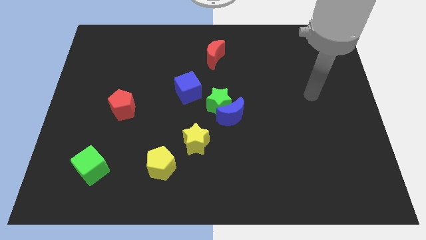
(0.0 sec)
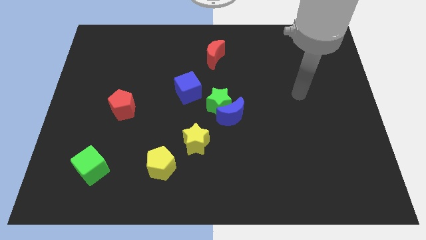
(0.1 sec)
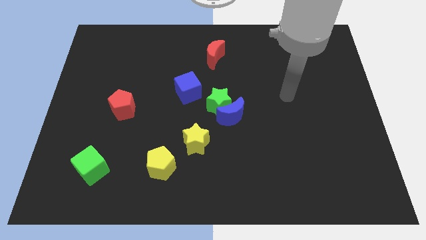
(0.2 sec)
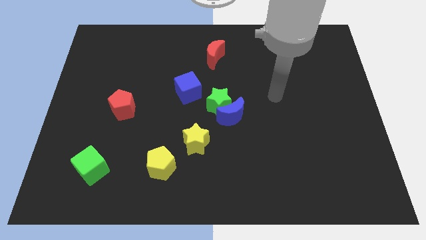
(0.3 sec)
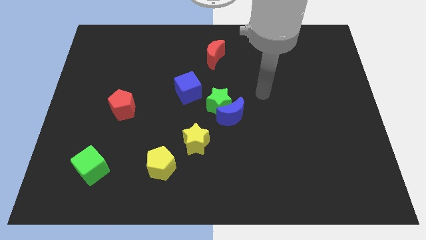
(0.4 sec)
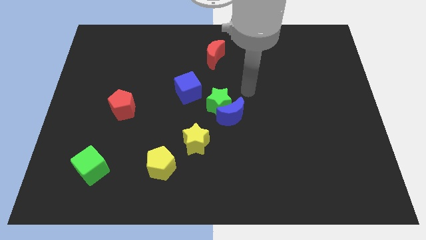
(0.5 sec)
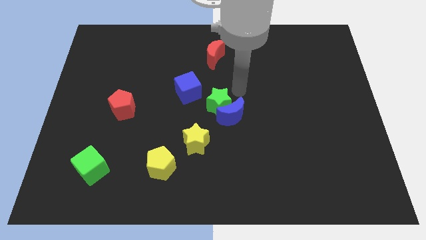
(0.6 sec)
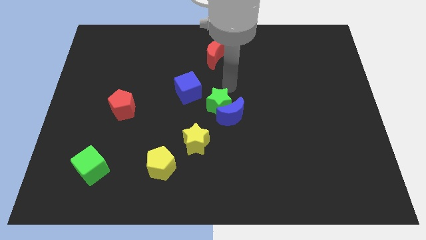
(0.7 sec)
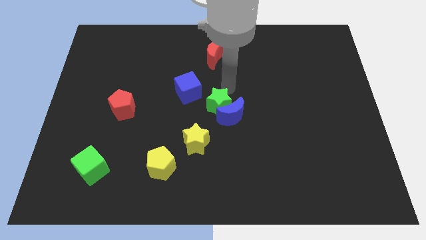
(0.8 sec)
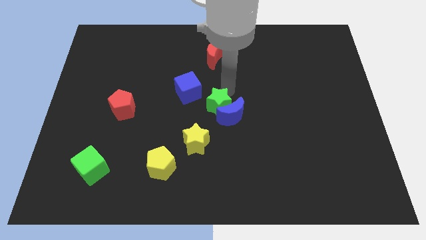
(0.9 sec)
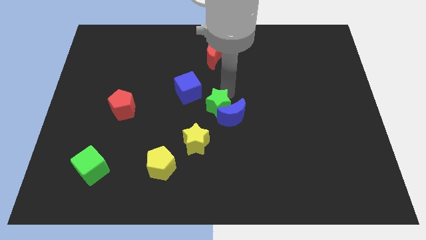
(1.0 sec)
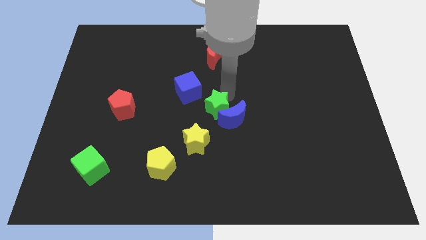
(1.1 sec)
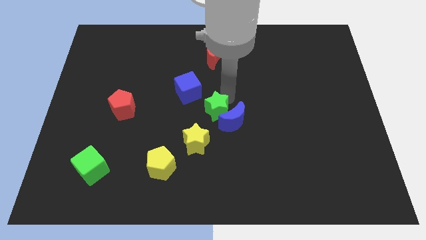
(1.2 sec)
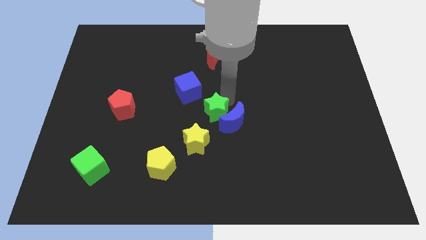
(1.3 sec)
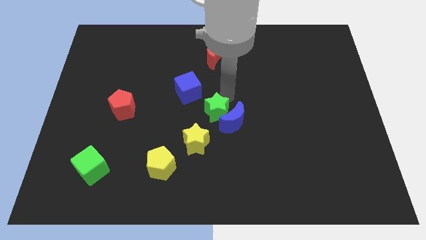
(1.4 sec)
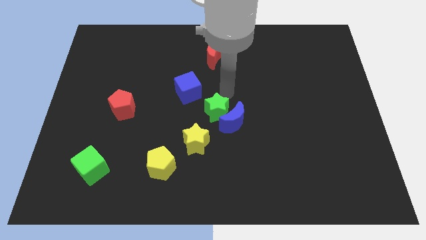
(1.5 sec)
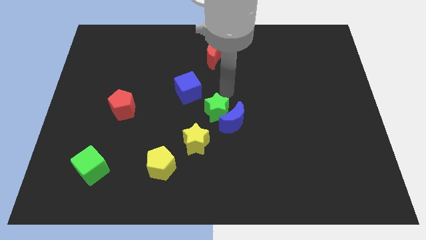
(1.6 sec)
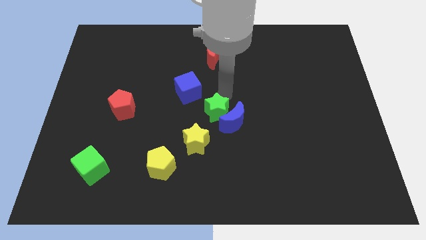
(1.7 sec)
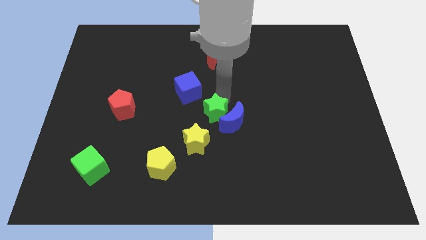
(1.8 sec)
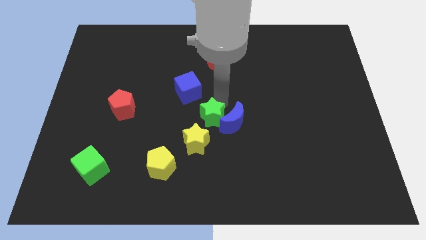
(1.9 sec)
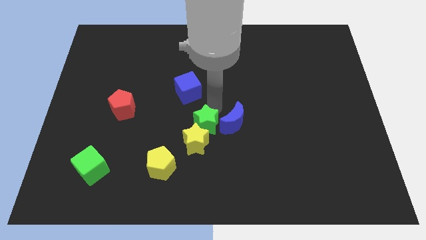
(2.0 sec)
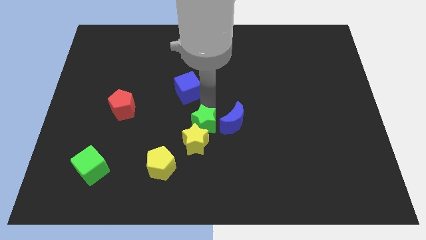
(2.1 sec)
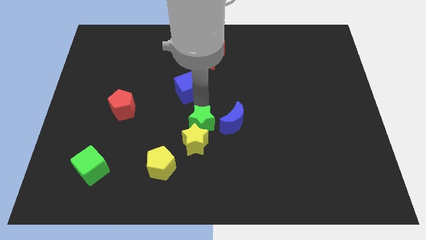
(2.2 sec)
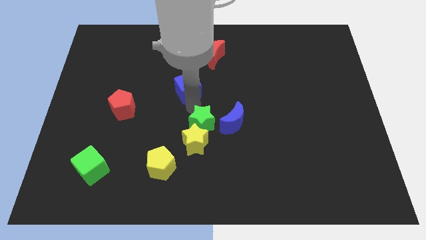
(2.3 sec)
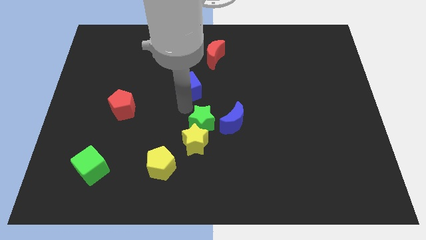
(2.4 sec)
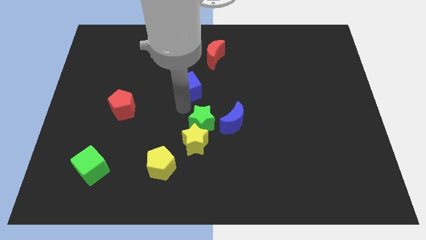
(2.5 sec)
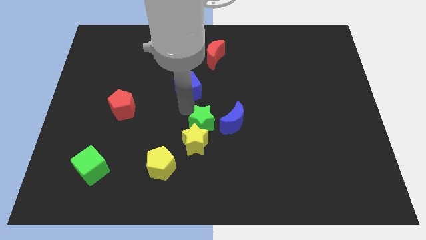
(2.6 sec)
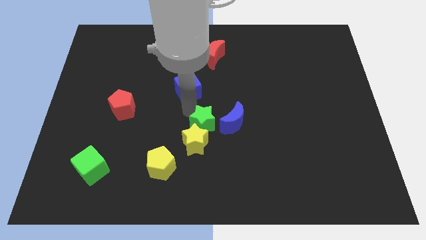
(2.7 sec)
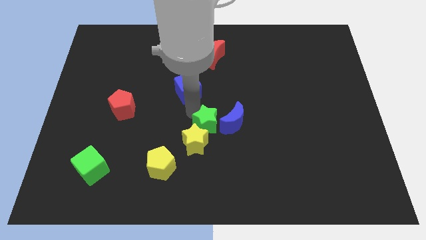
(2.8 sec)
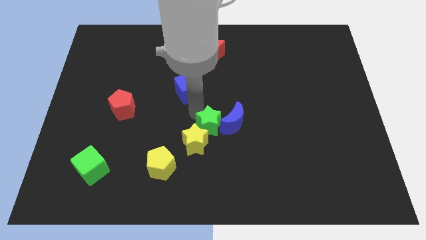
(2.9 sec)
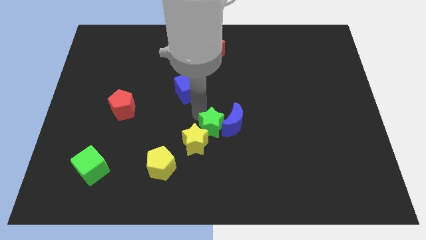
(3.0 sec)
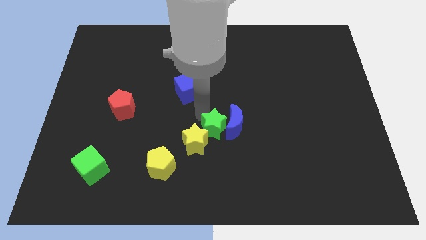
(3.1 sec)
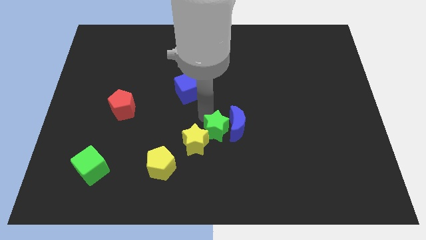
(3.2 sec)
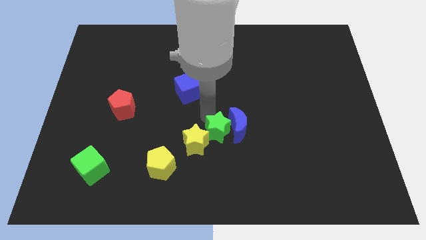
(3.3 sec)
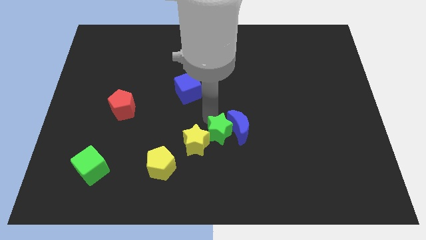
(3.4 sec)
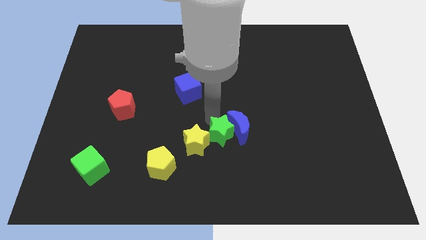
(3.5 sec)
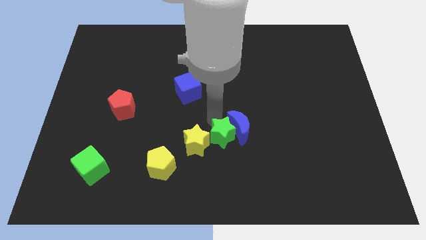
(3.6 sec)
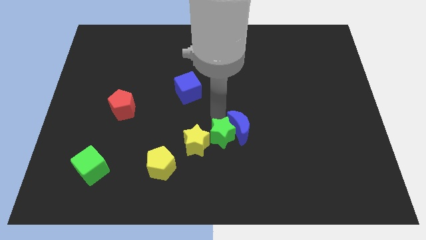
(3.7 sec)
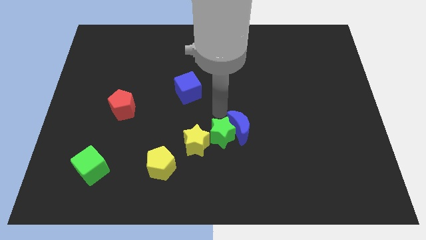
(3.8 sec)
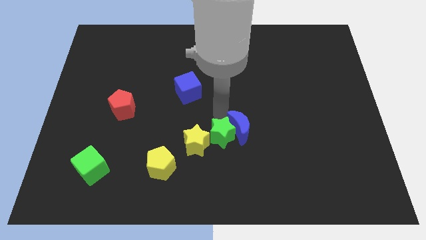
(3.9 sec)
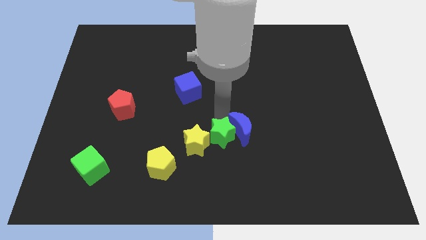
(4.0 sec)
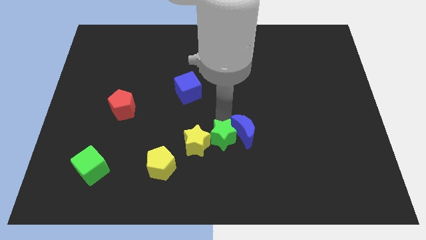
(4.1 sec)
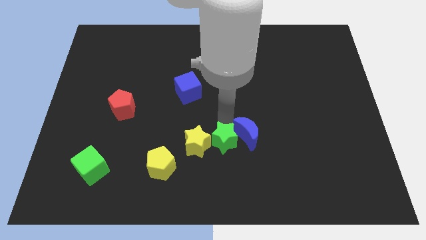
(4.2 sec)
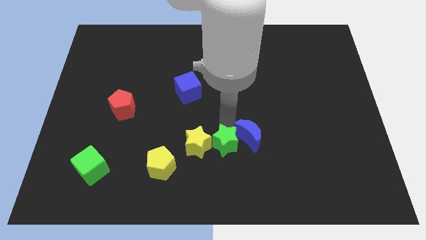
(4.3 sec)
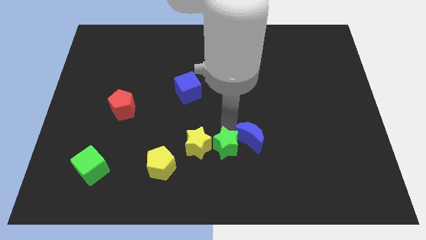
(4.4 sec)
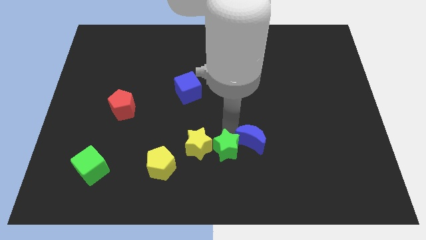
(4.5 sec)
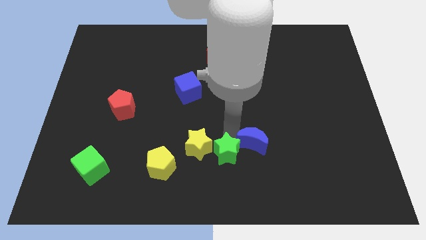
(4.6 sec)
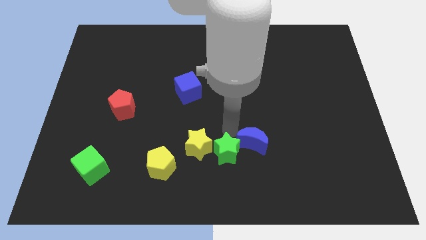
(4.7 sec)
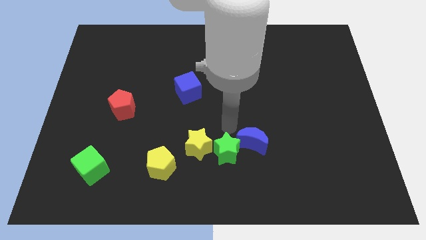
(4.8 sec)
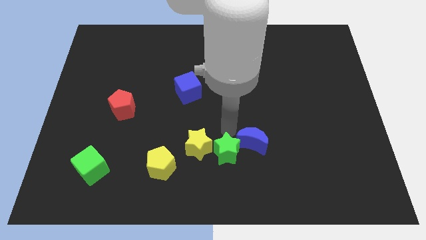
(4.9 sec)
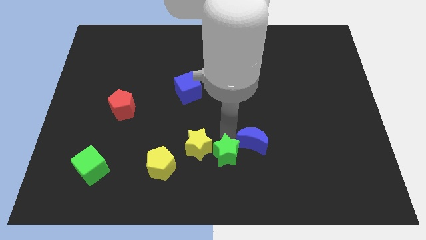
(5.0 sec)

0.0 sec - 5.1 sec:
push the green star to the bottom side

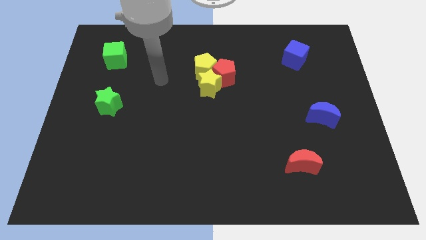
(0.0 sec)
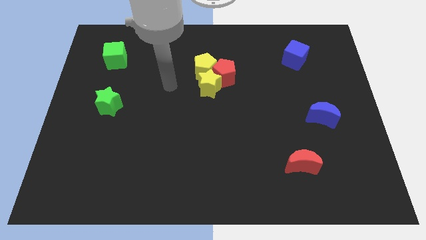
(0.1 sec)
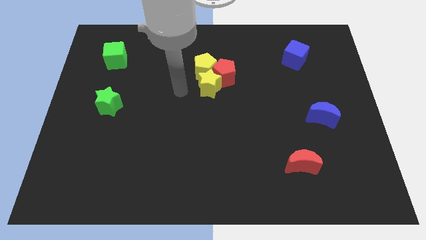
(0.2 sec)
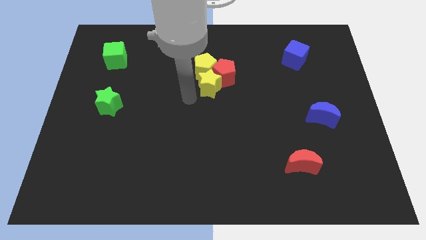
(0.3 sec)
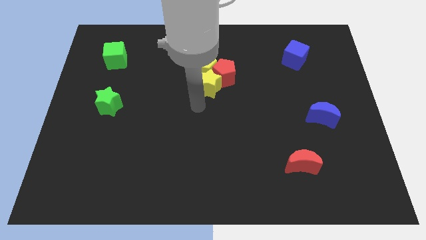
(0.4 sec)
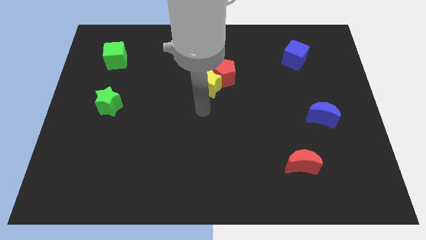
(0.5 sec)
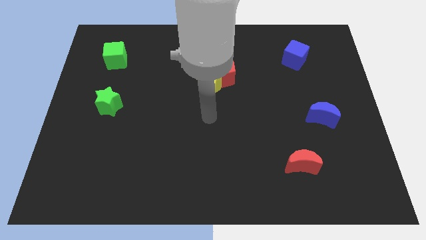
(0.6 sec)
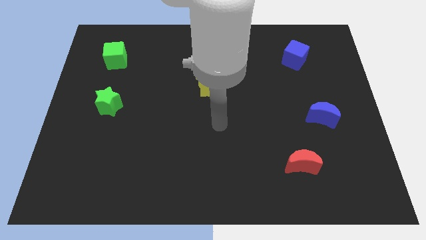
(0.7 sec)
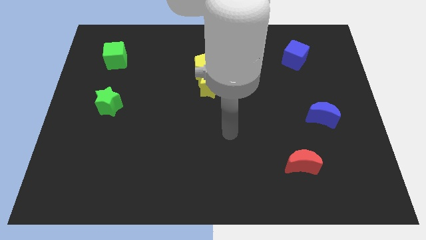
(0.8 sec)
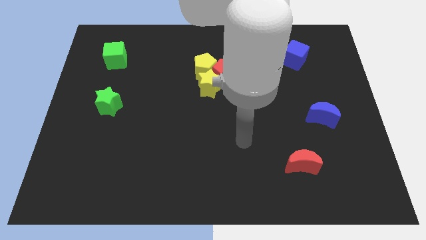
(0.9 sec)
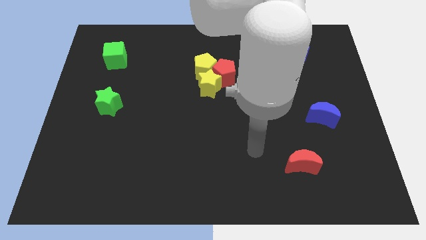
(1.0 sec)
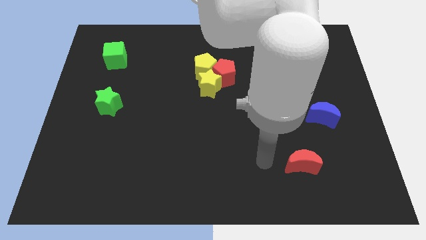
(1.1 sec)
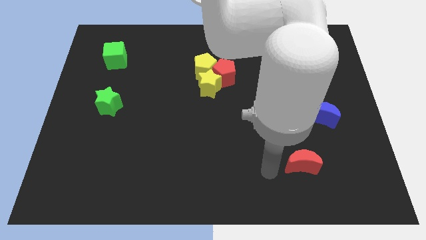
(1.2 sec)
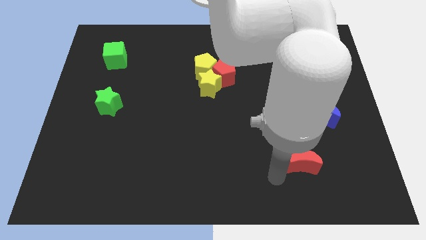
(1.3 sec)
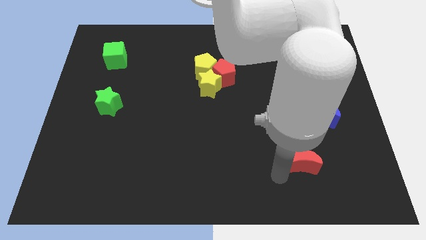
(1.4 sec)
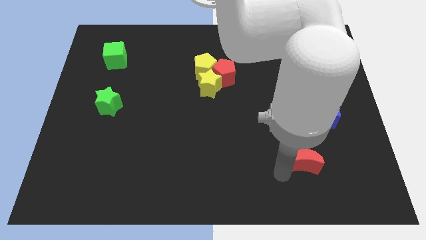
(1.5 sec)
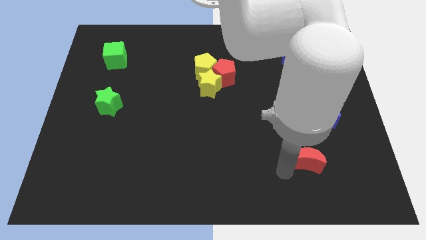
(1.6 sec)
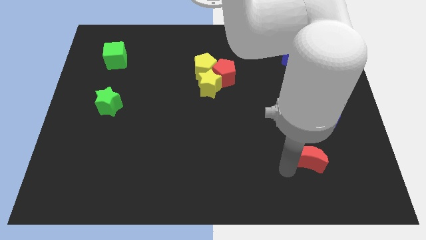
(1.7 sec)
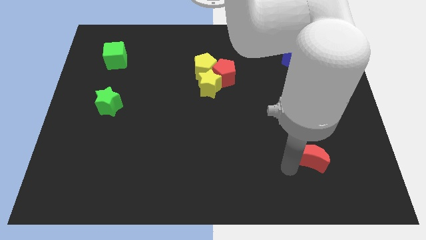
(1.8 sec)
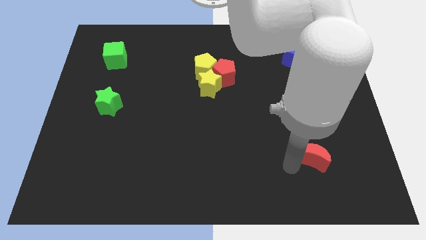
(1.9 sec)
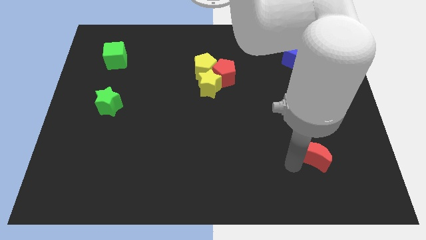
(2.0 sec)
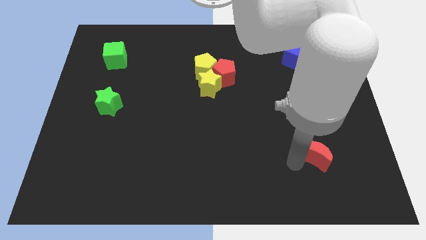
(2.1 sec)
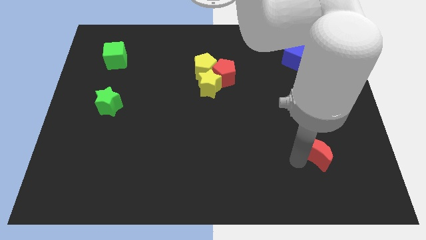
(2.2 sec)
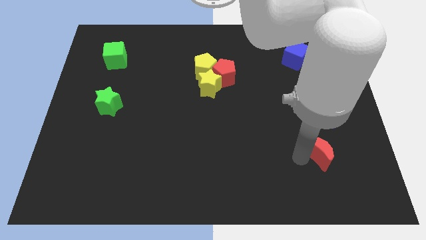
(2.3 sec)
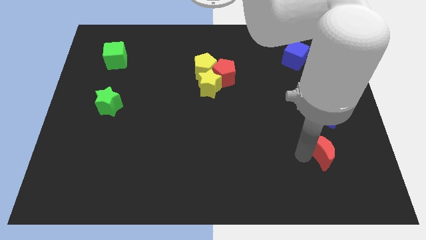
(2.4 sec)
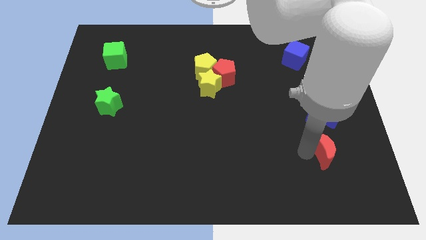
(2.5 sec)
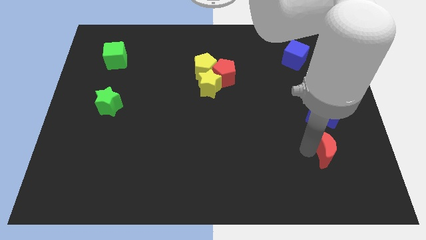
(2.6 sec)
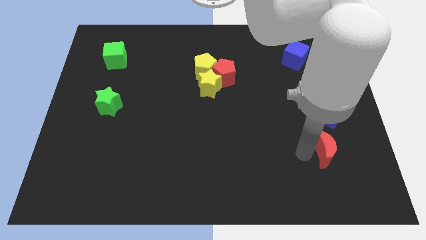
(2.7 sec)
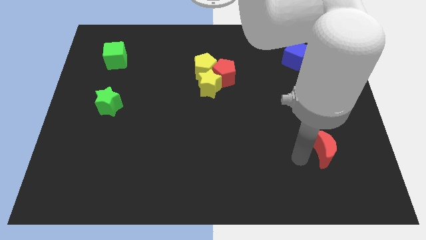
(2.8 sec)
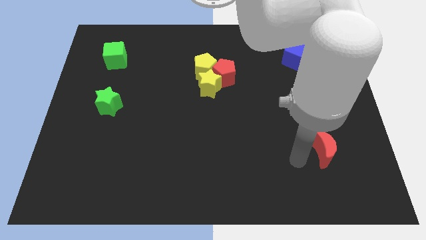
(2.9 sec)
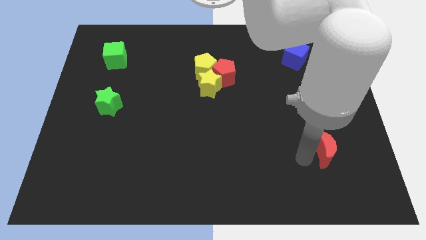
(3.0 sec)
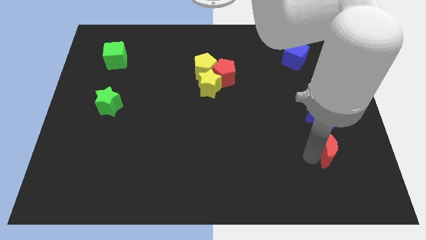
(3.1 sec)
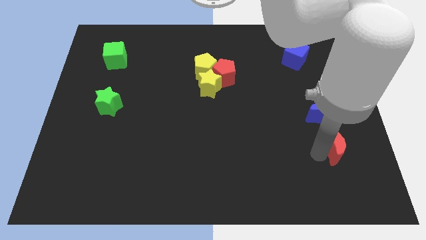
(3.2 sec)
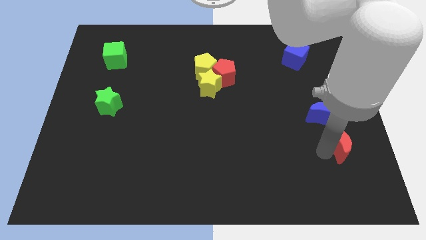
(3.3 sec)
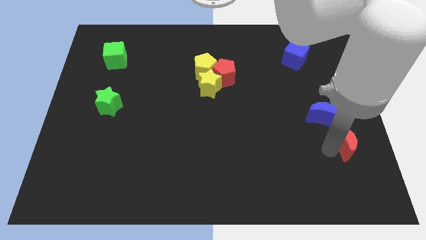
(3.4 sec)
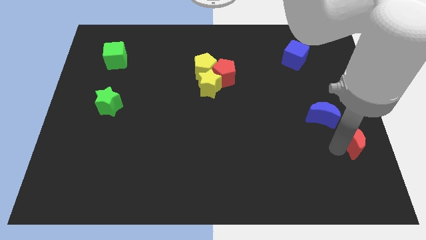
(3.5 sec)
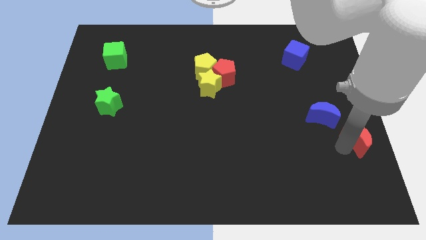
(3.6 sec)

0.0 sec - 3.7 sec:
push the red moon to the center right
